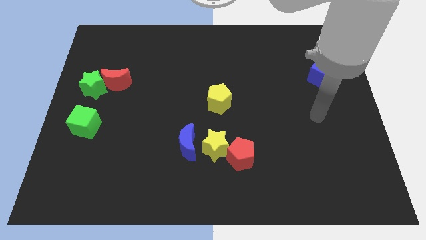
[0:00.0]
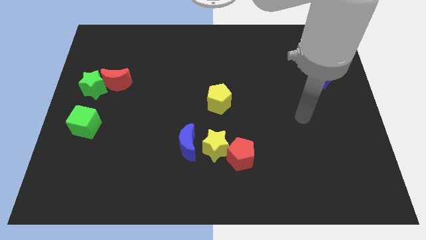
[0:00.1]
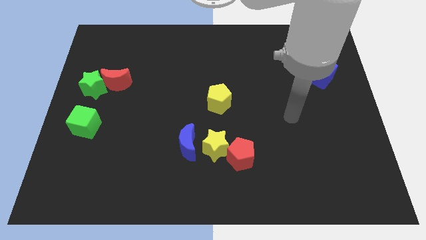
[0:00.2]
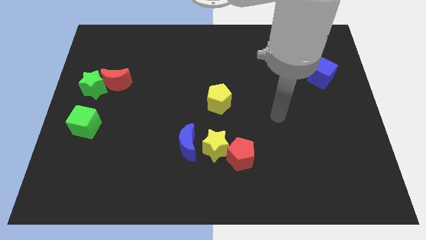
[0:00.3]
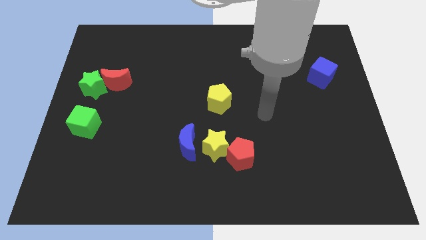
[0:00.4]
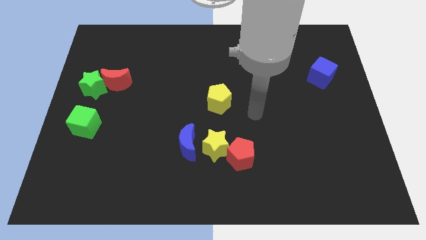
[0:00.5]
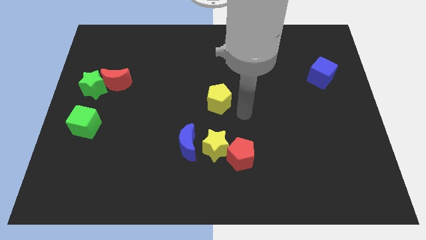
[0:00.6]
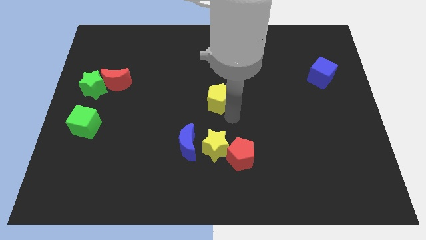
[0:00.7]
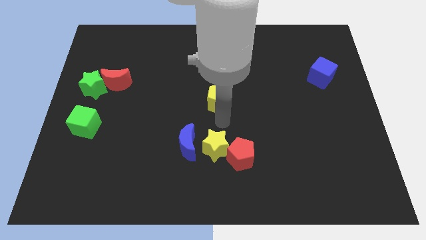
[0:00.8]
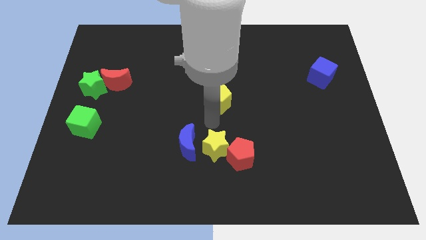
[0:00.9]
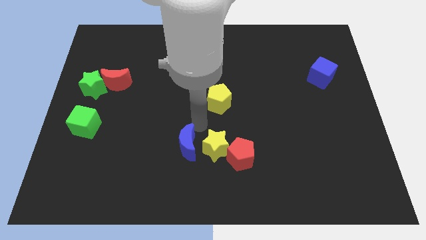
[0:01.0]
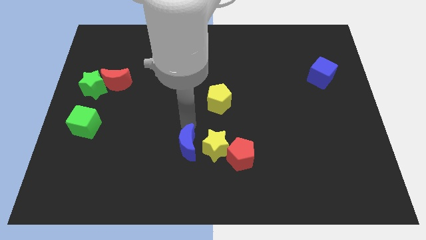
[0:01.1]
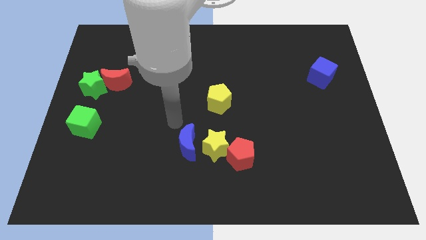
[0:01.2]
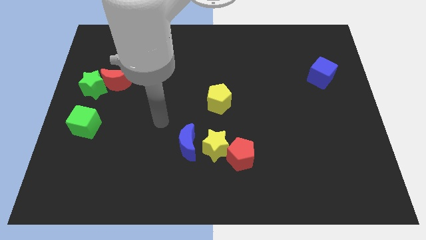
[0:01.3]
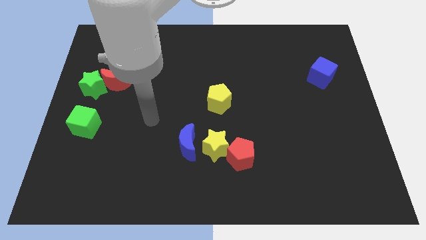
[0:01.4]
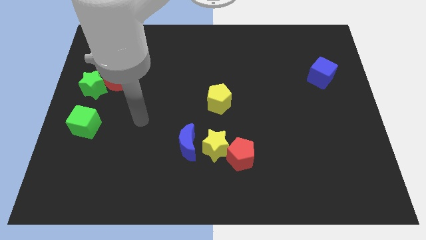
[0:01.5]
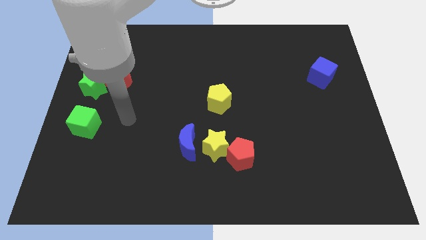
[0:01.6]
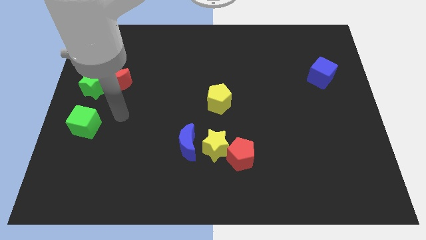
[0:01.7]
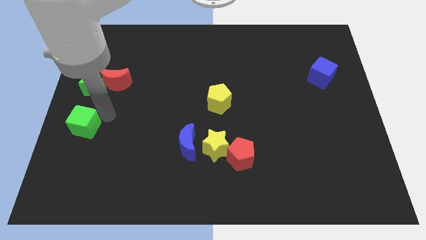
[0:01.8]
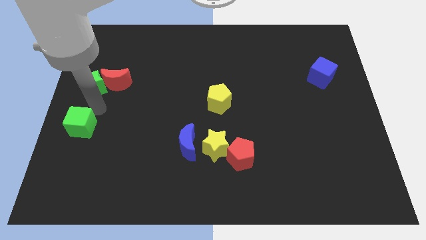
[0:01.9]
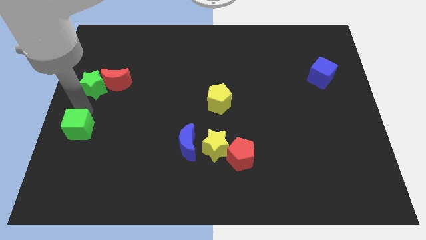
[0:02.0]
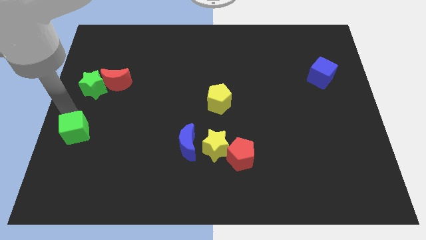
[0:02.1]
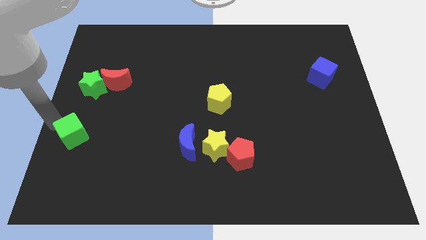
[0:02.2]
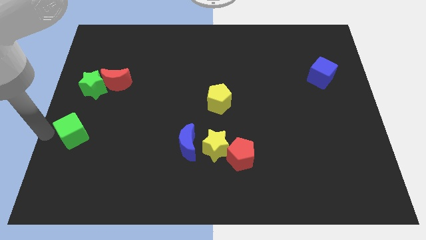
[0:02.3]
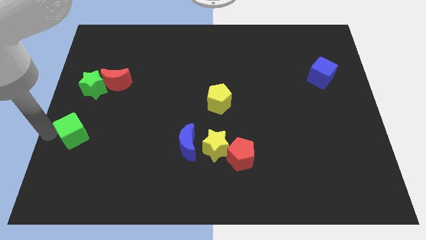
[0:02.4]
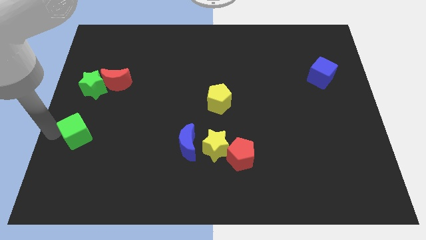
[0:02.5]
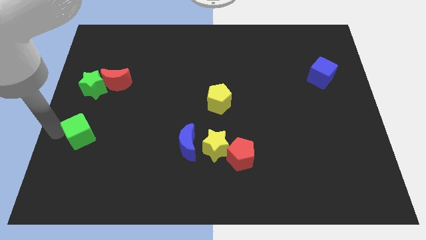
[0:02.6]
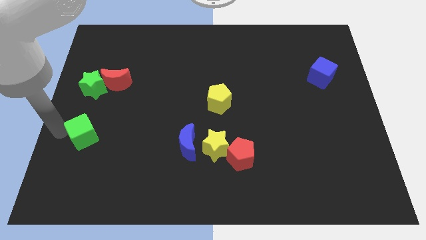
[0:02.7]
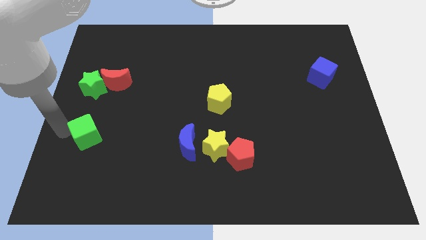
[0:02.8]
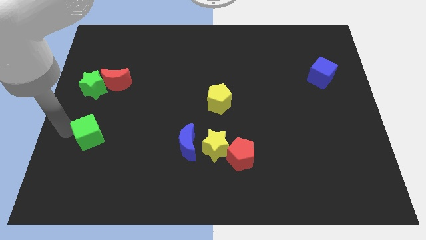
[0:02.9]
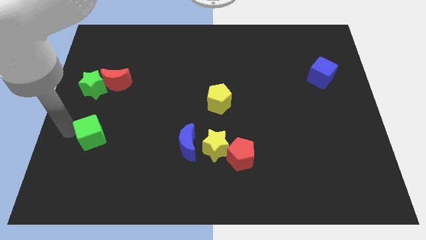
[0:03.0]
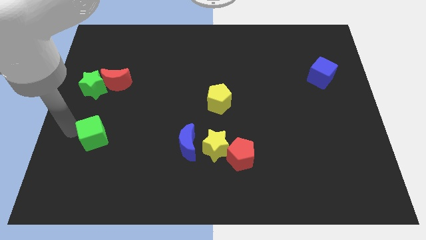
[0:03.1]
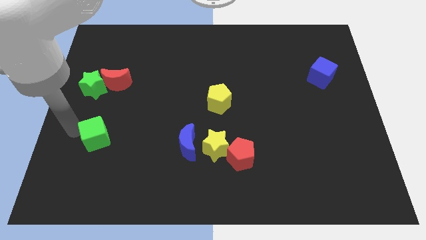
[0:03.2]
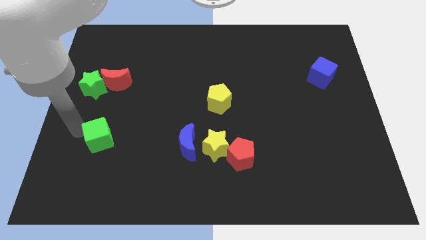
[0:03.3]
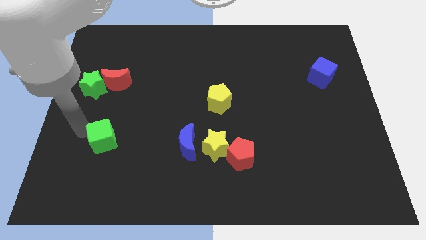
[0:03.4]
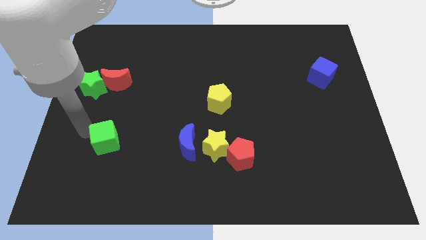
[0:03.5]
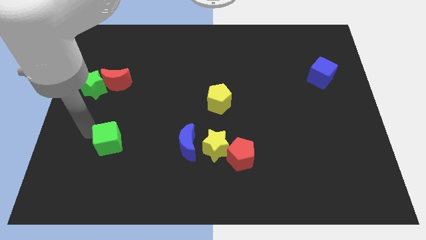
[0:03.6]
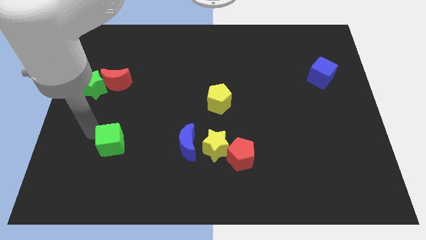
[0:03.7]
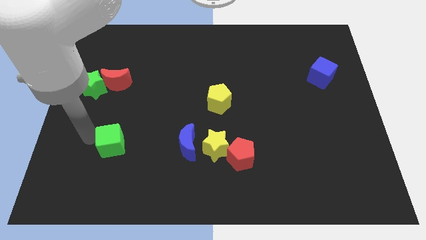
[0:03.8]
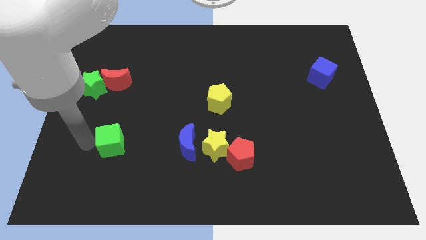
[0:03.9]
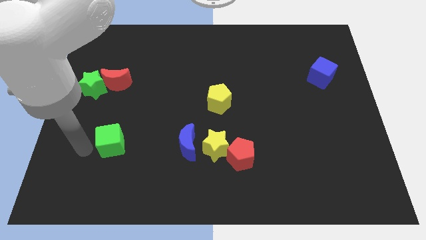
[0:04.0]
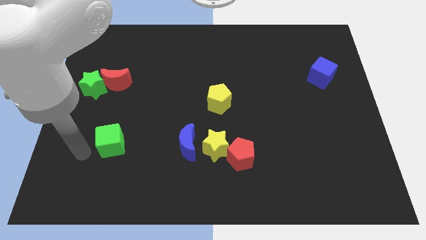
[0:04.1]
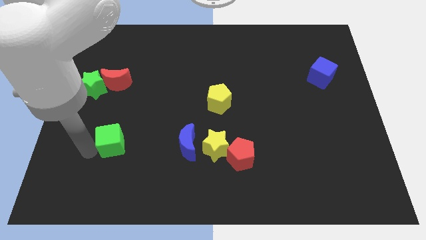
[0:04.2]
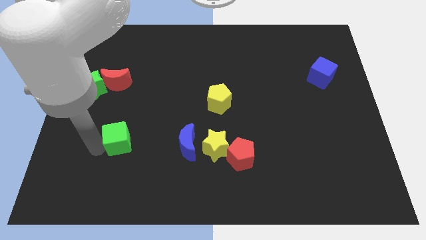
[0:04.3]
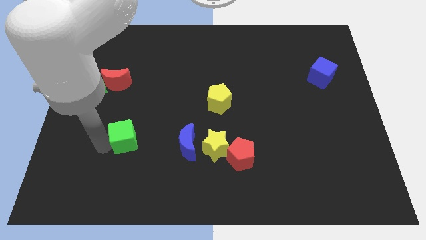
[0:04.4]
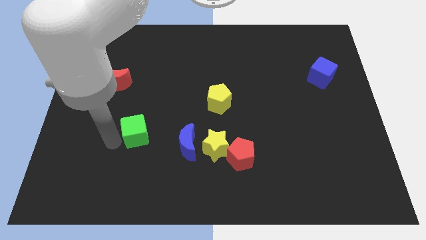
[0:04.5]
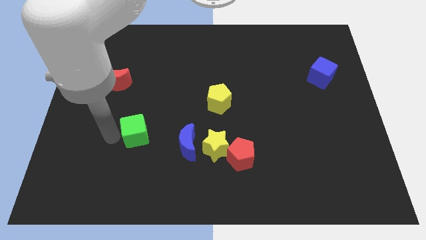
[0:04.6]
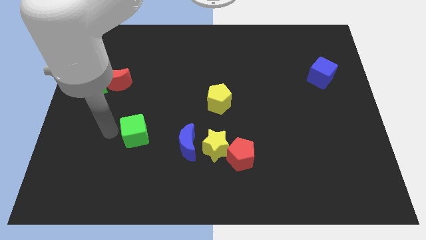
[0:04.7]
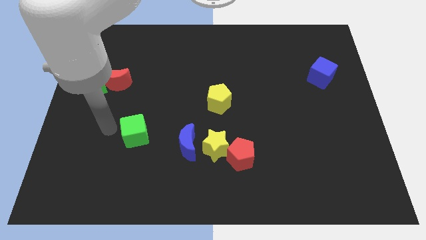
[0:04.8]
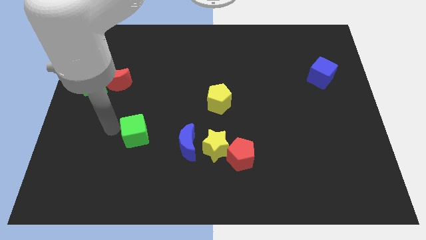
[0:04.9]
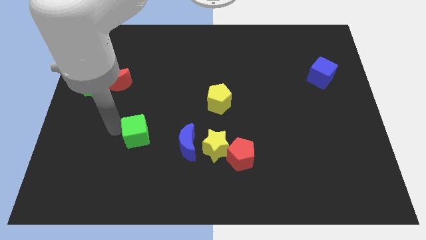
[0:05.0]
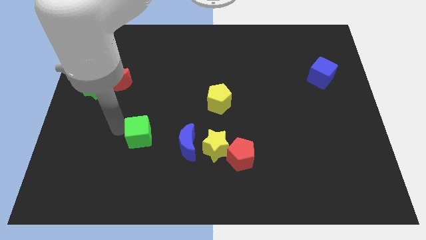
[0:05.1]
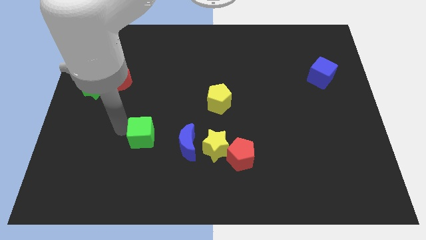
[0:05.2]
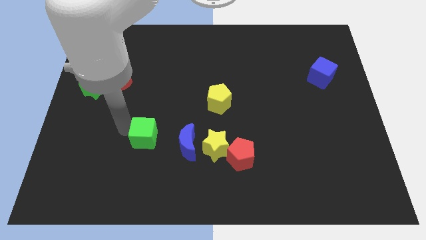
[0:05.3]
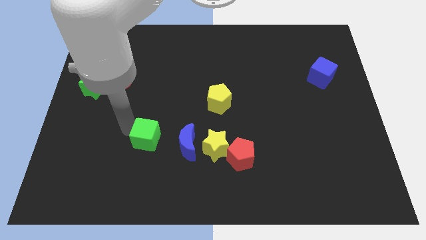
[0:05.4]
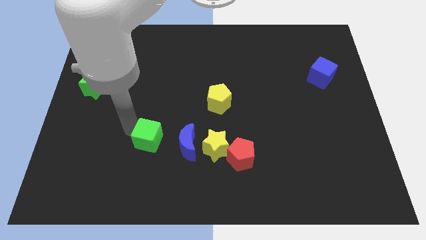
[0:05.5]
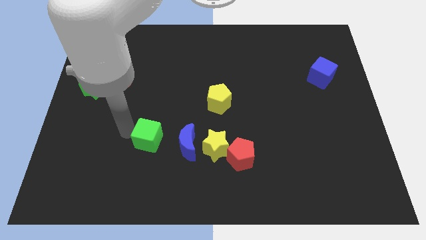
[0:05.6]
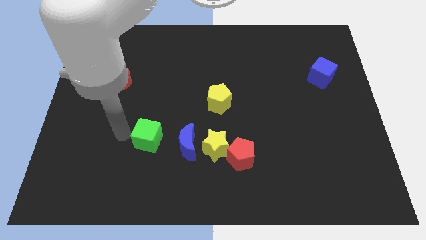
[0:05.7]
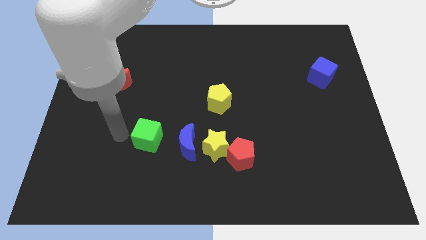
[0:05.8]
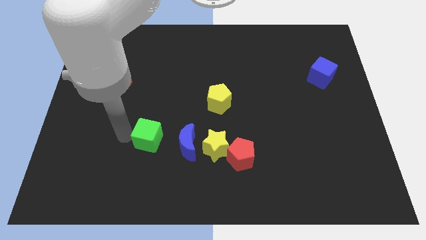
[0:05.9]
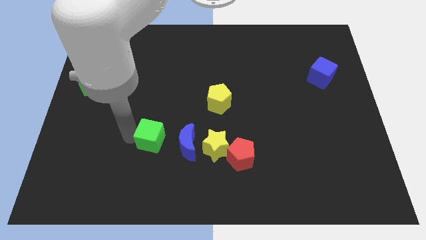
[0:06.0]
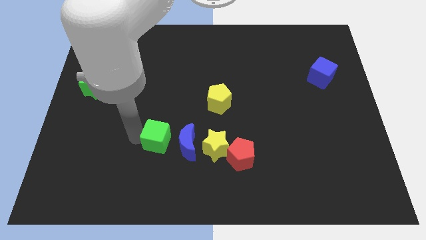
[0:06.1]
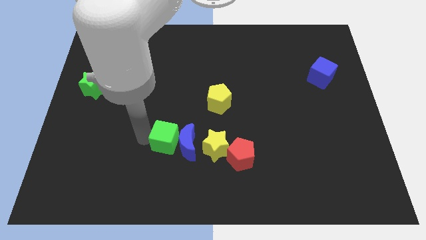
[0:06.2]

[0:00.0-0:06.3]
move the green cube close to the blue moon

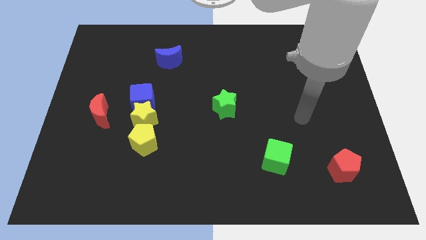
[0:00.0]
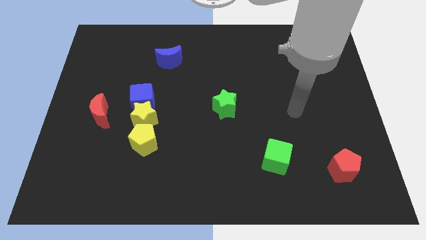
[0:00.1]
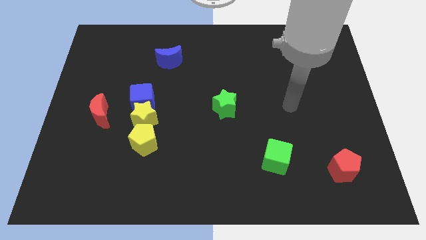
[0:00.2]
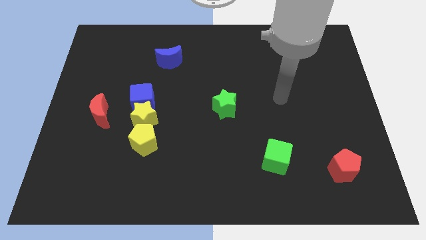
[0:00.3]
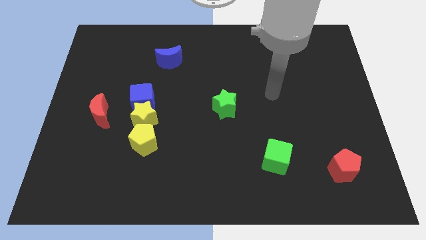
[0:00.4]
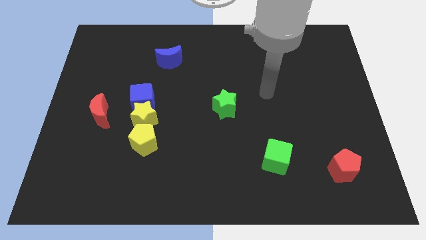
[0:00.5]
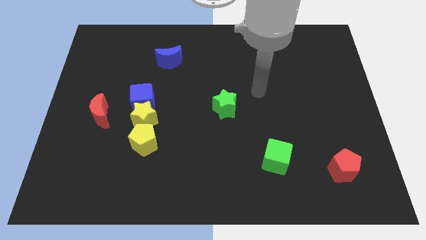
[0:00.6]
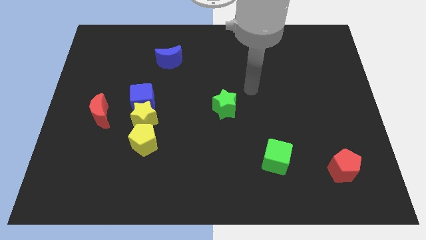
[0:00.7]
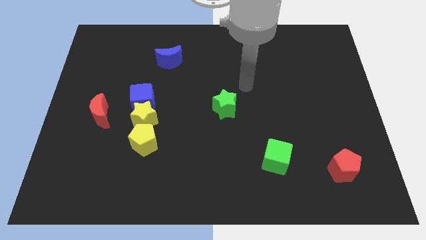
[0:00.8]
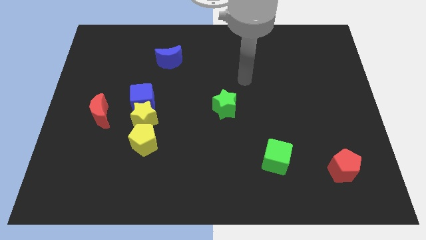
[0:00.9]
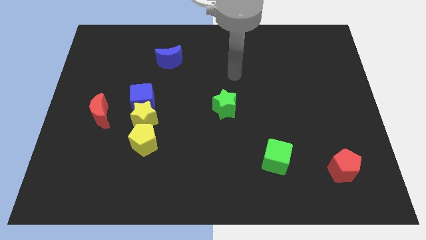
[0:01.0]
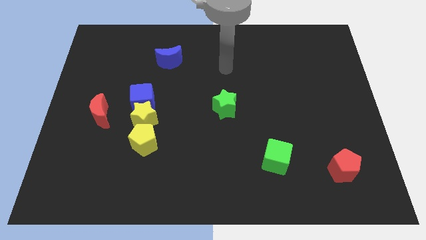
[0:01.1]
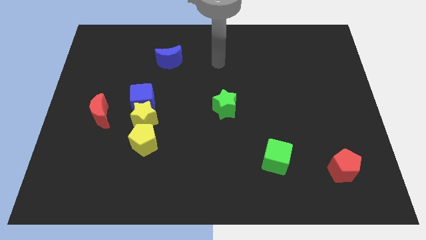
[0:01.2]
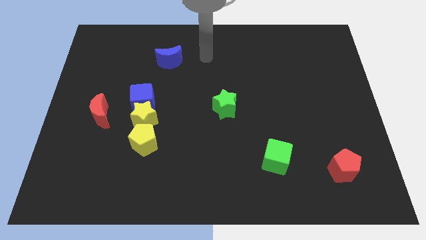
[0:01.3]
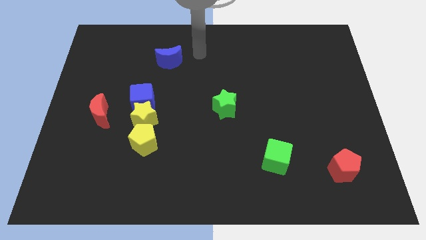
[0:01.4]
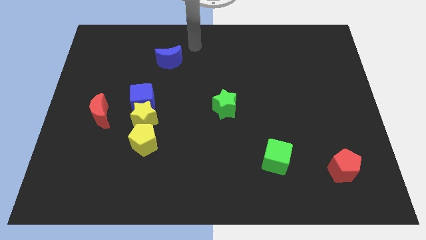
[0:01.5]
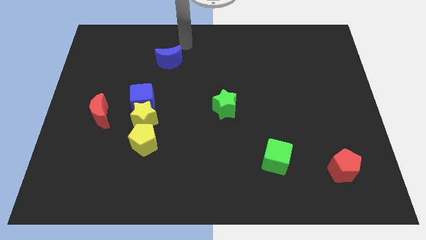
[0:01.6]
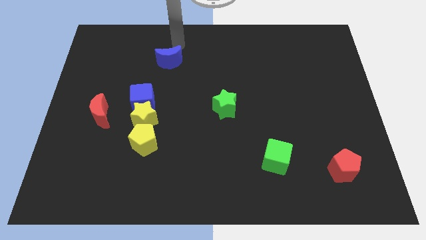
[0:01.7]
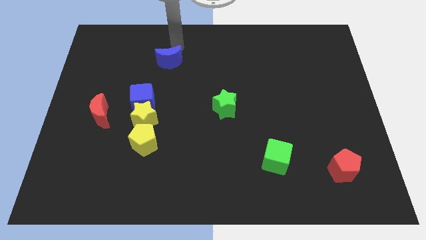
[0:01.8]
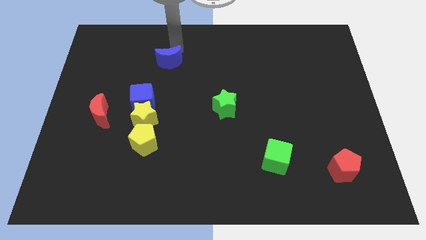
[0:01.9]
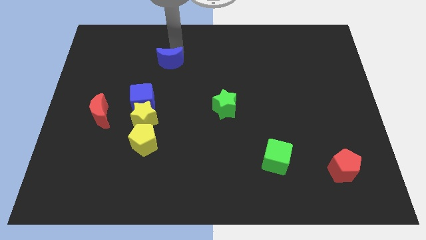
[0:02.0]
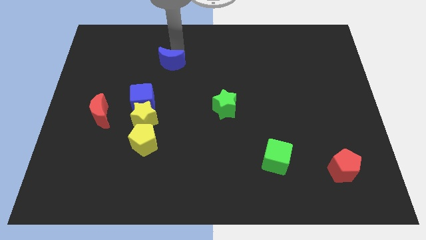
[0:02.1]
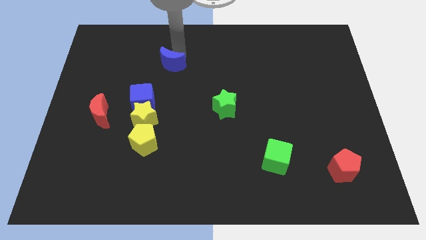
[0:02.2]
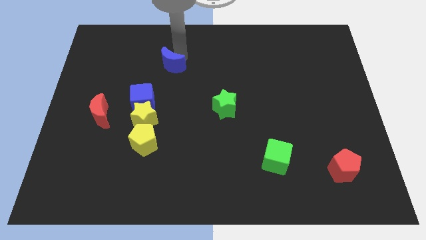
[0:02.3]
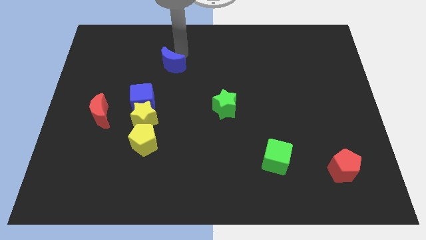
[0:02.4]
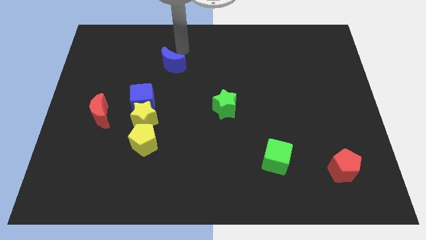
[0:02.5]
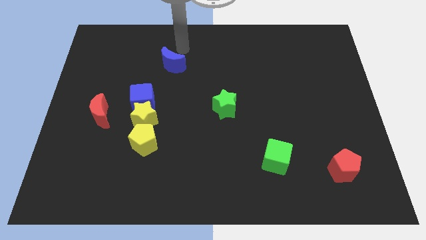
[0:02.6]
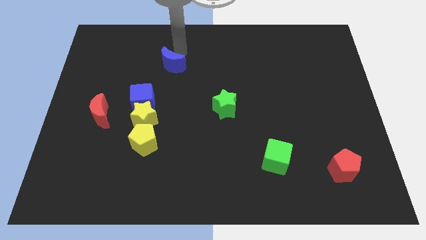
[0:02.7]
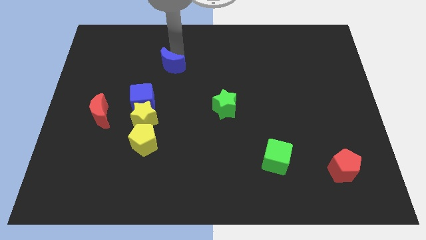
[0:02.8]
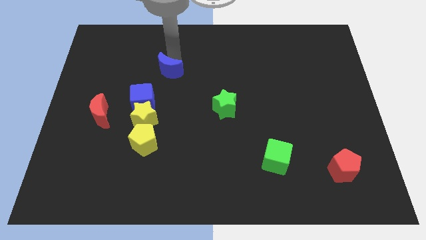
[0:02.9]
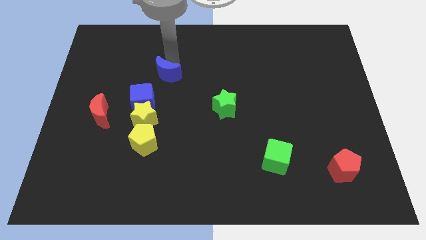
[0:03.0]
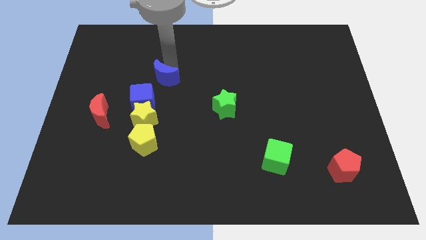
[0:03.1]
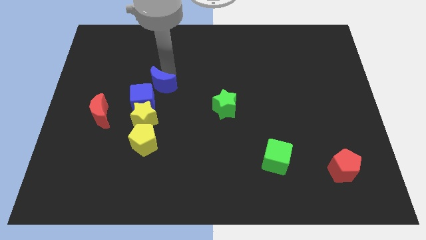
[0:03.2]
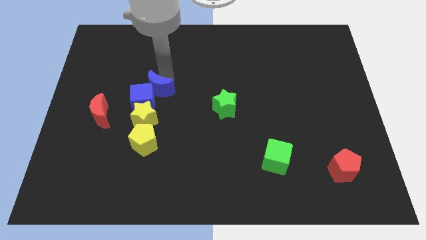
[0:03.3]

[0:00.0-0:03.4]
push the blue moon towards the blue cube
